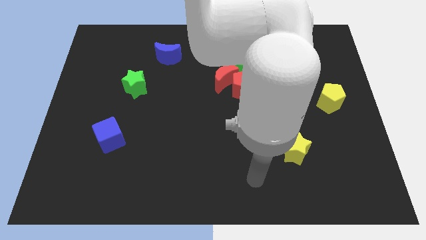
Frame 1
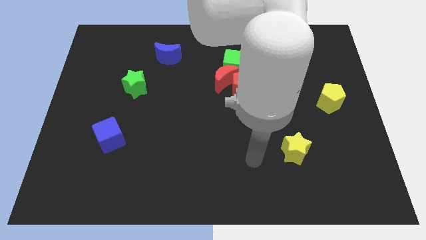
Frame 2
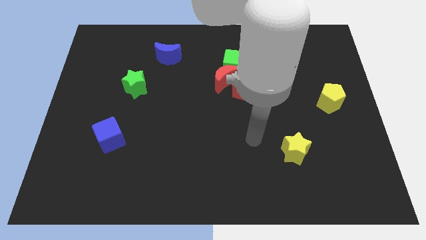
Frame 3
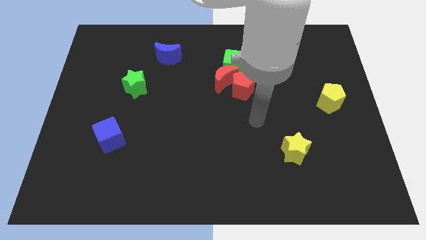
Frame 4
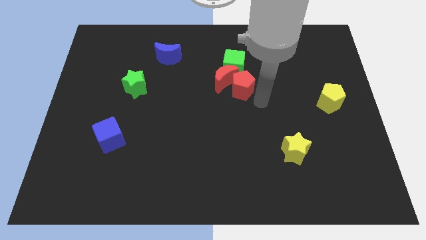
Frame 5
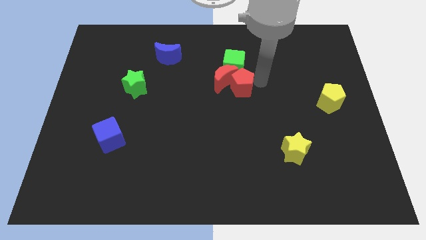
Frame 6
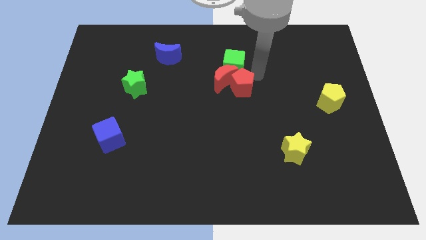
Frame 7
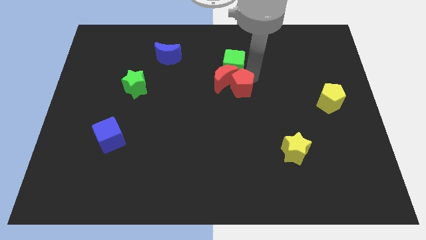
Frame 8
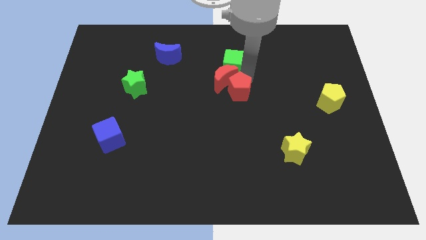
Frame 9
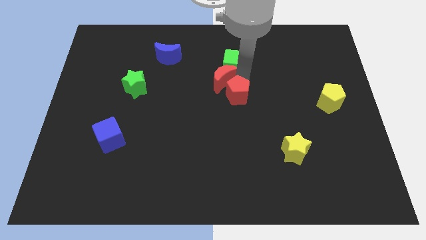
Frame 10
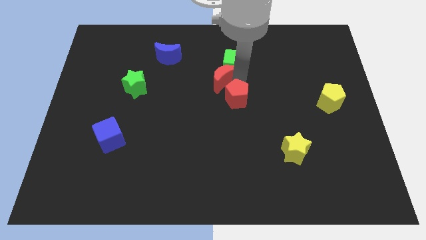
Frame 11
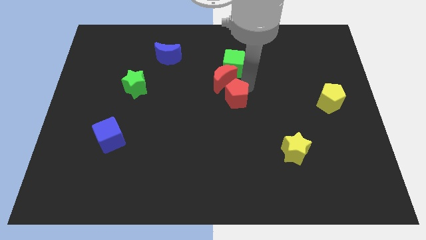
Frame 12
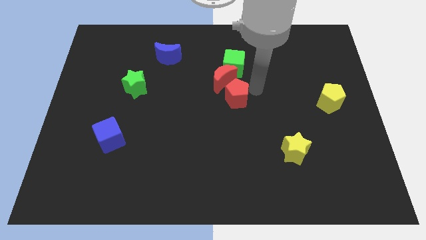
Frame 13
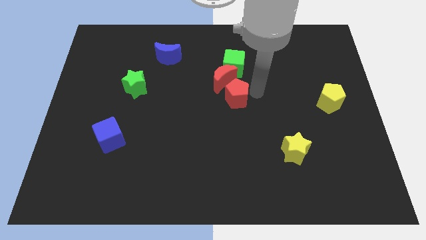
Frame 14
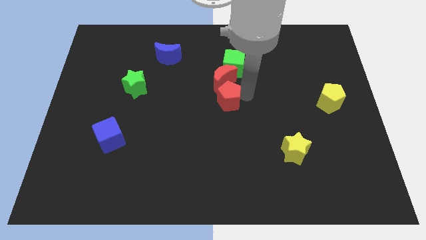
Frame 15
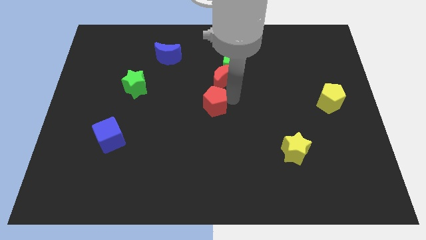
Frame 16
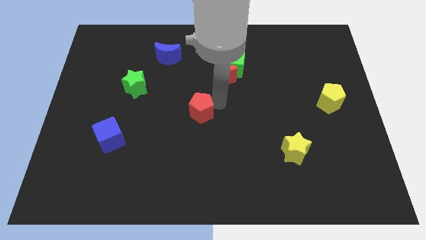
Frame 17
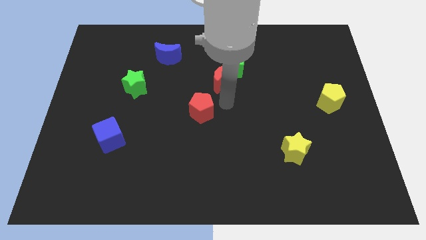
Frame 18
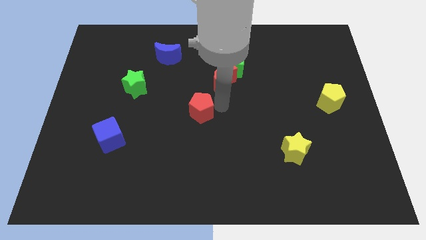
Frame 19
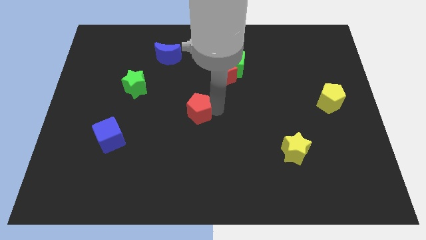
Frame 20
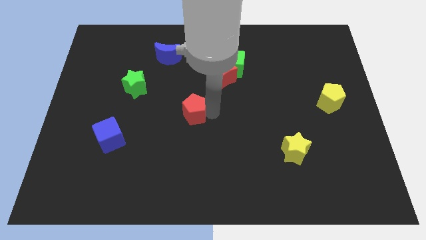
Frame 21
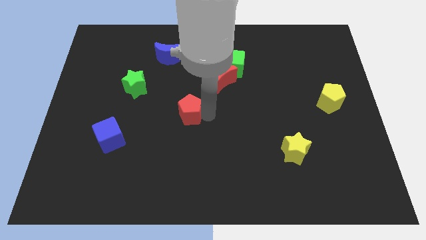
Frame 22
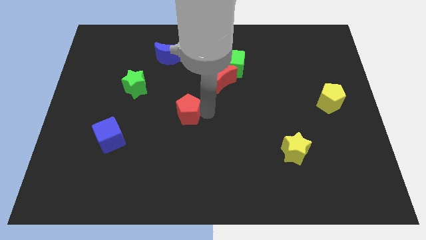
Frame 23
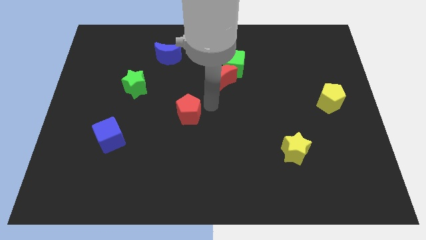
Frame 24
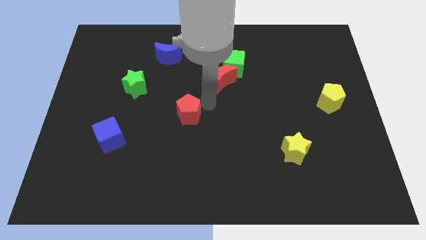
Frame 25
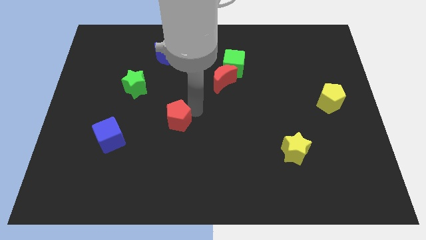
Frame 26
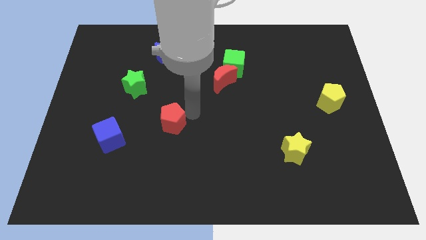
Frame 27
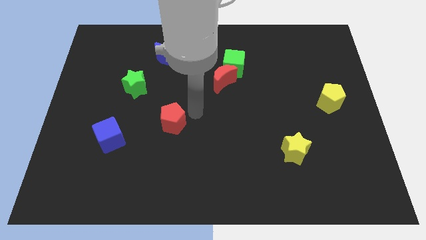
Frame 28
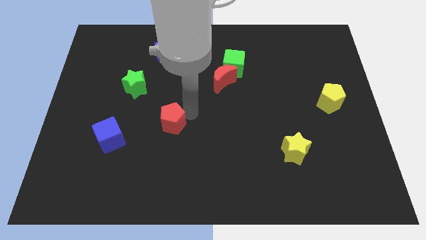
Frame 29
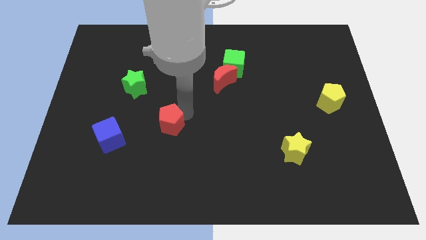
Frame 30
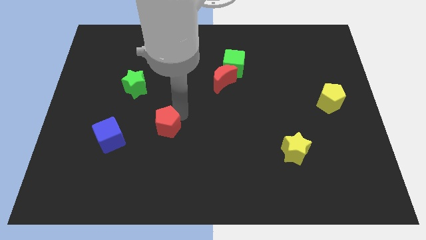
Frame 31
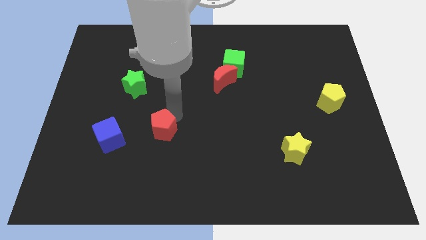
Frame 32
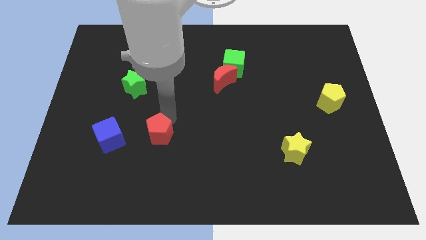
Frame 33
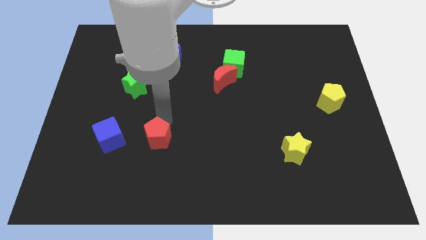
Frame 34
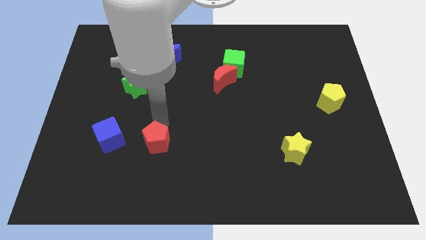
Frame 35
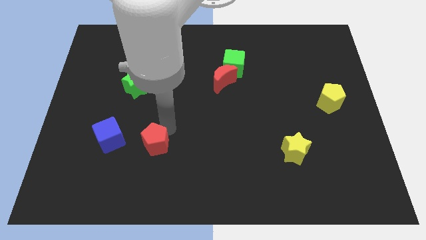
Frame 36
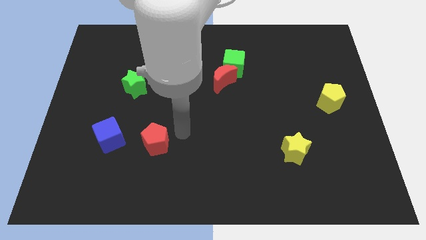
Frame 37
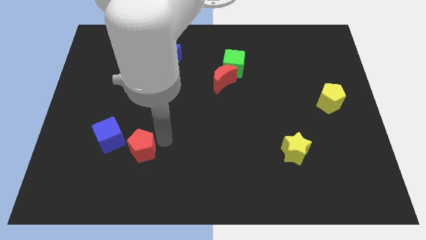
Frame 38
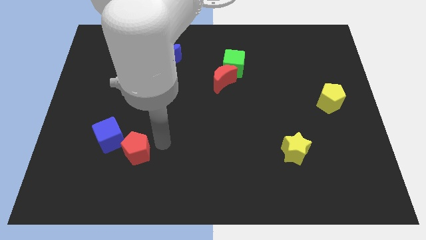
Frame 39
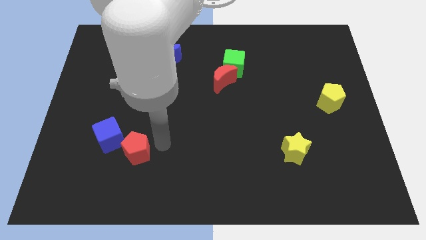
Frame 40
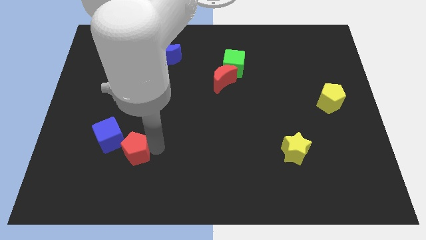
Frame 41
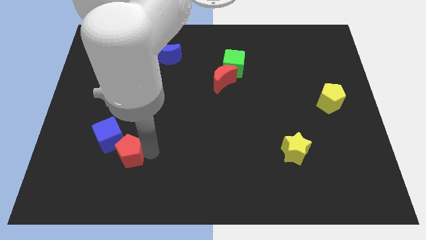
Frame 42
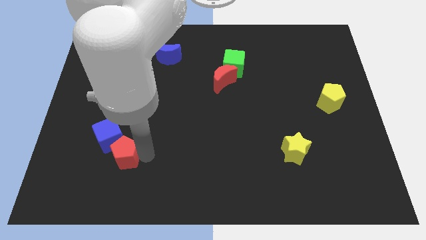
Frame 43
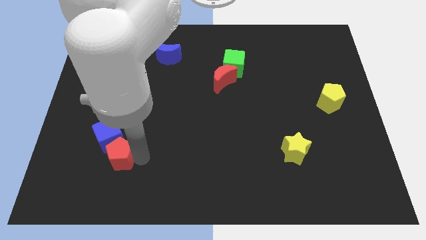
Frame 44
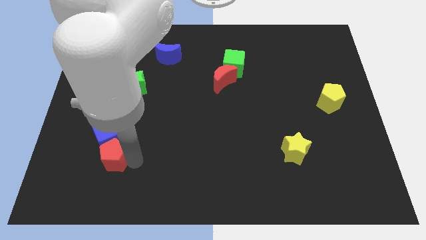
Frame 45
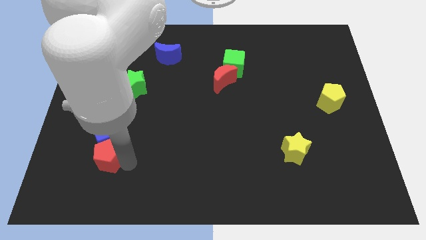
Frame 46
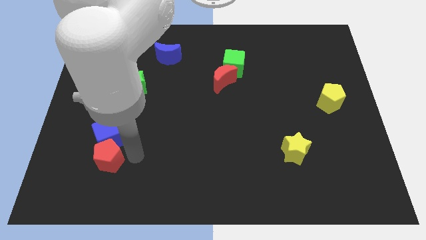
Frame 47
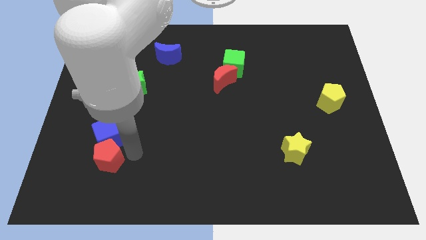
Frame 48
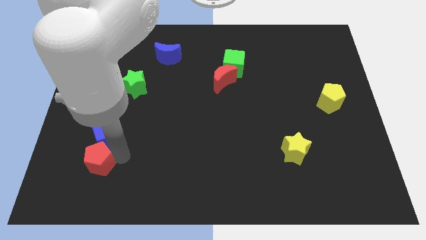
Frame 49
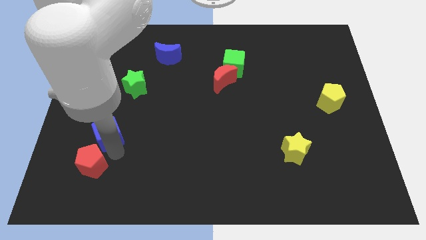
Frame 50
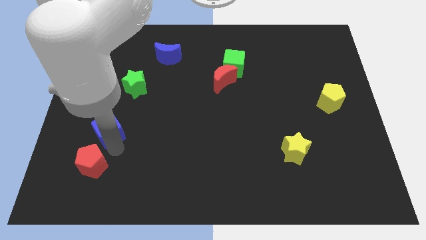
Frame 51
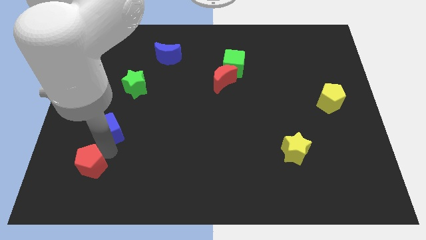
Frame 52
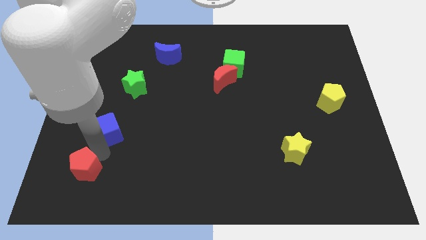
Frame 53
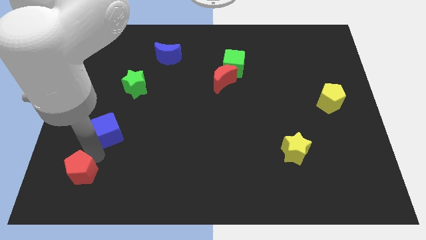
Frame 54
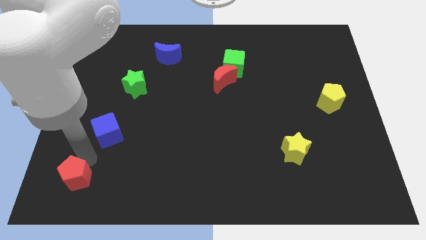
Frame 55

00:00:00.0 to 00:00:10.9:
slide the red pentagon to the lower left corner

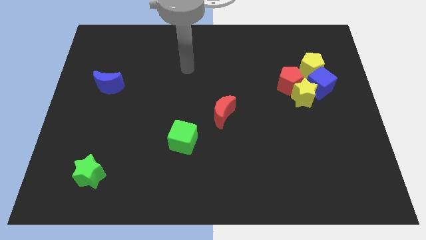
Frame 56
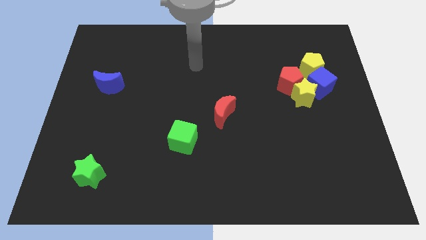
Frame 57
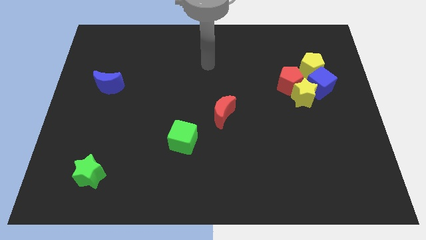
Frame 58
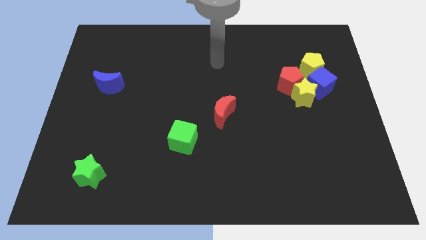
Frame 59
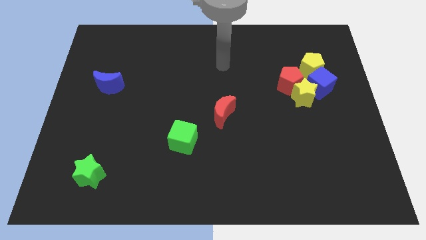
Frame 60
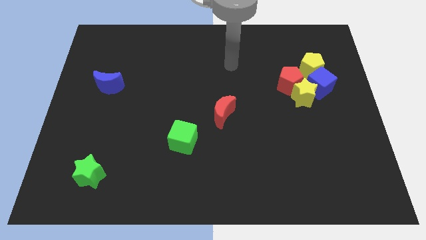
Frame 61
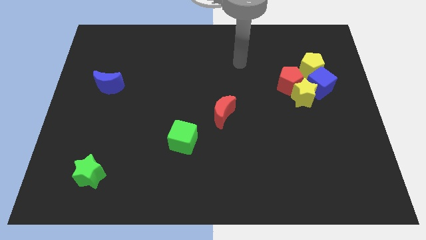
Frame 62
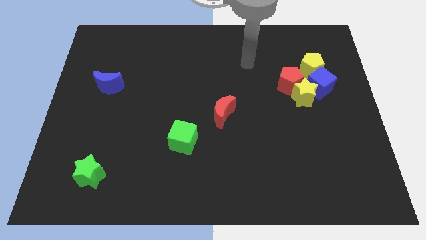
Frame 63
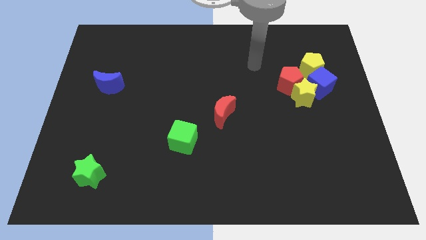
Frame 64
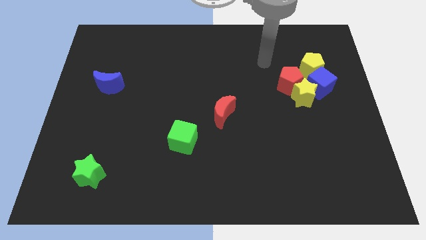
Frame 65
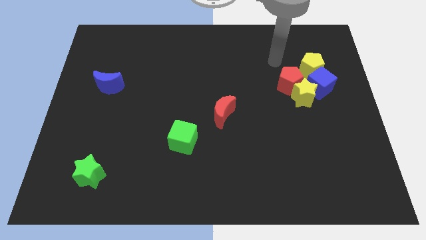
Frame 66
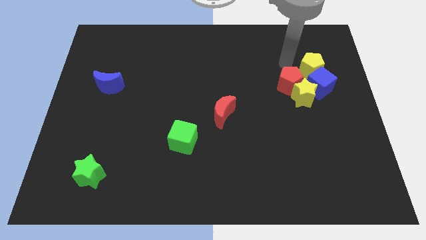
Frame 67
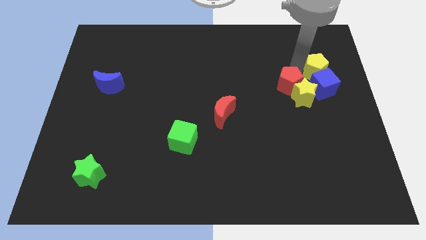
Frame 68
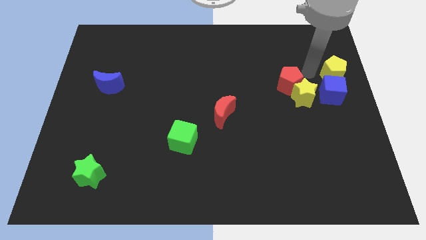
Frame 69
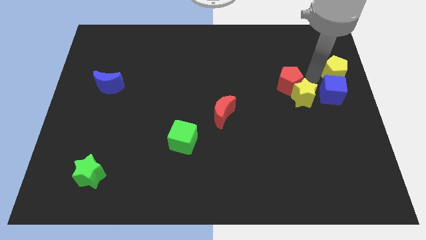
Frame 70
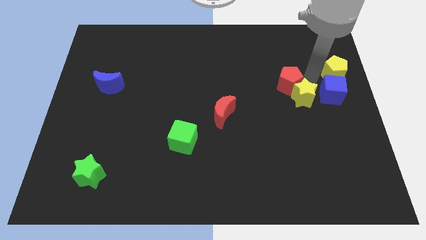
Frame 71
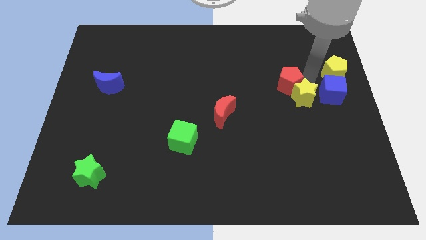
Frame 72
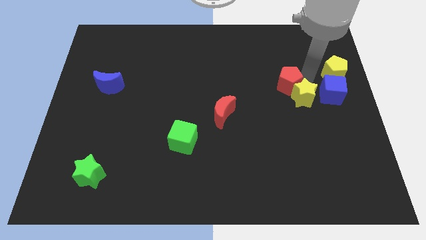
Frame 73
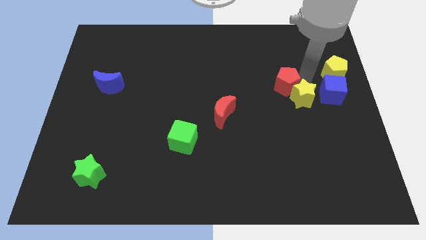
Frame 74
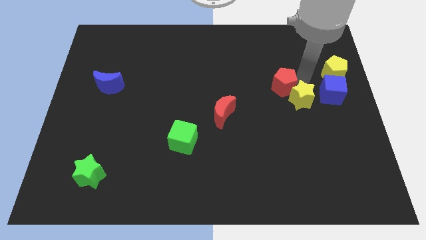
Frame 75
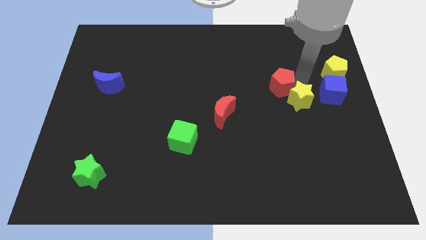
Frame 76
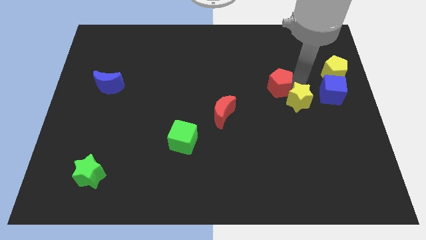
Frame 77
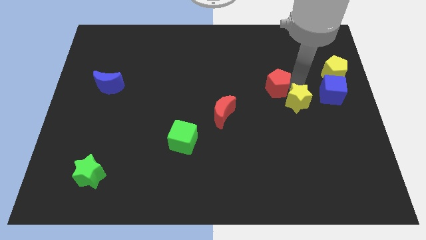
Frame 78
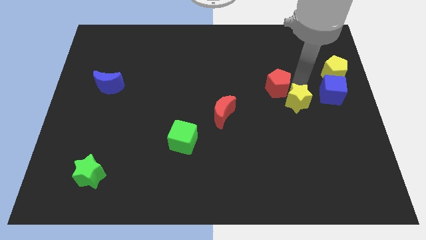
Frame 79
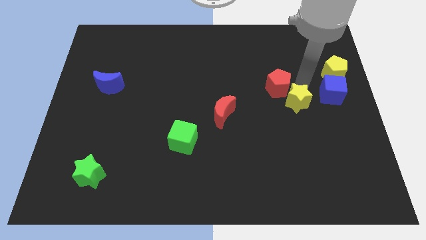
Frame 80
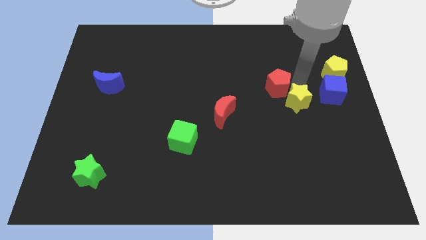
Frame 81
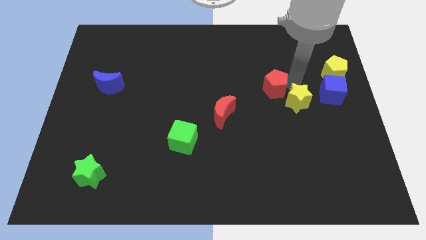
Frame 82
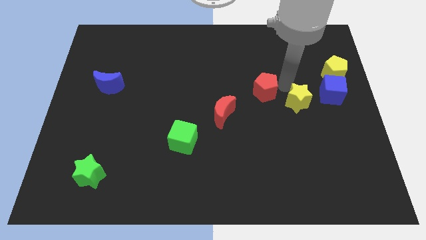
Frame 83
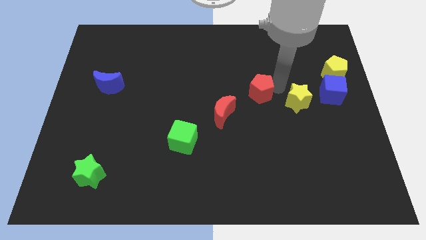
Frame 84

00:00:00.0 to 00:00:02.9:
slide the red pentagon to the center of the board
